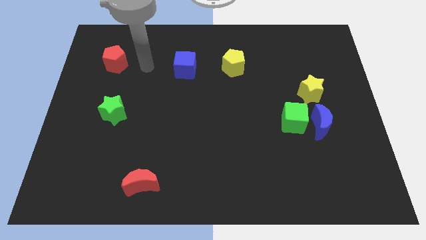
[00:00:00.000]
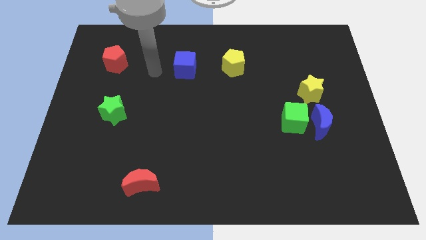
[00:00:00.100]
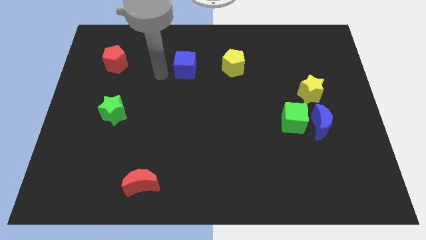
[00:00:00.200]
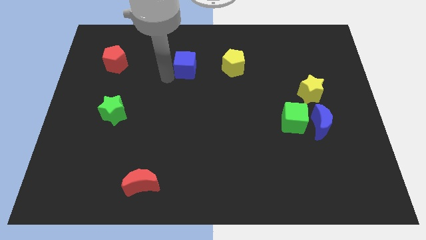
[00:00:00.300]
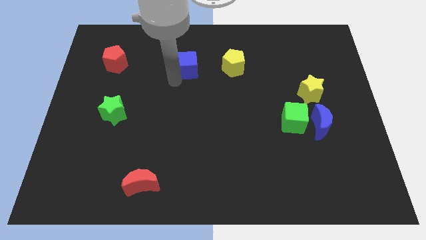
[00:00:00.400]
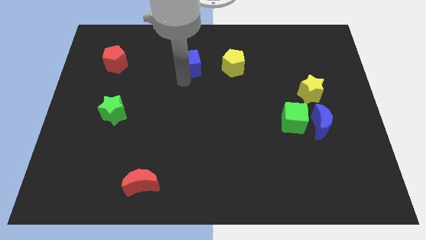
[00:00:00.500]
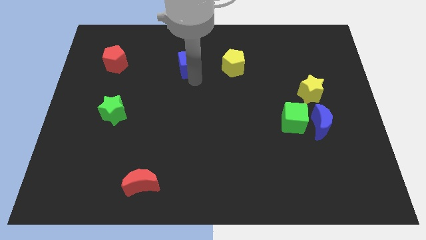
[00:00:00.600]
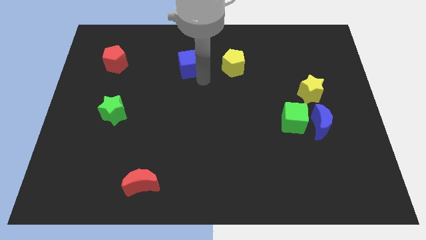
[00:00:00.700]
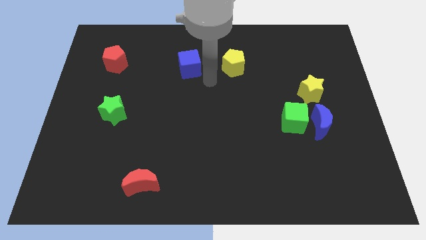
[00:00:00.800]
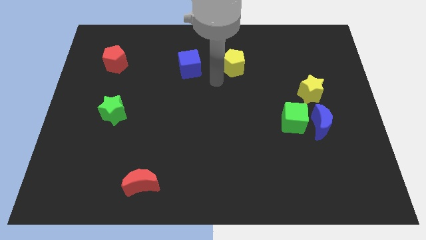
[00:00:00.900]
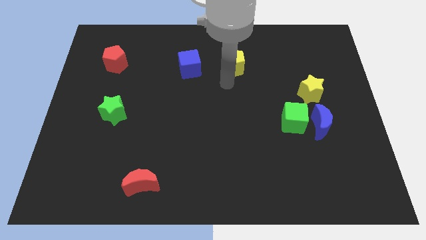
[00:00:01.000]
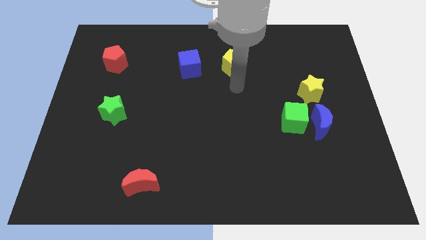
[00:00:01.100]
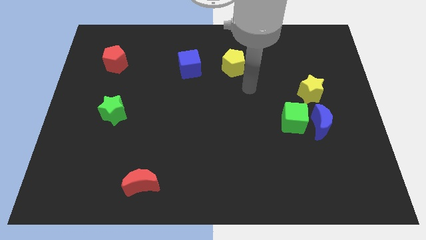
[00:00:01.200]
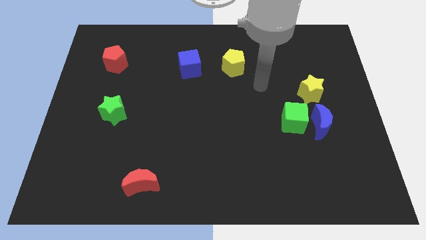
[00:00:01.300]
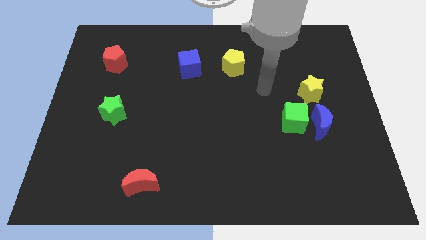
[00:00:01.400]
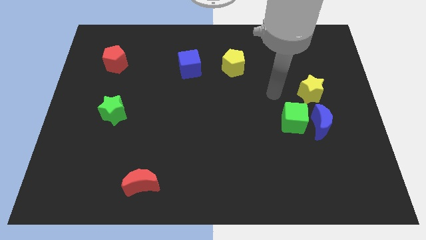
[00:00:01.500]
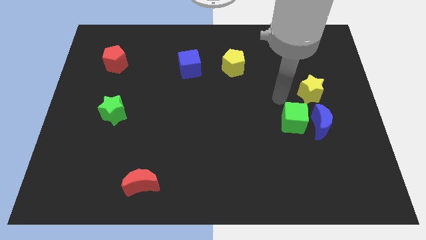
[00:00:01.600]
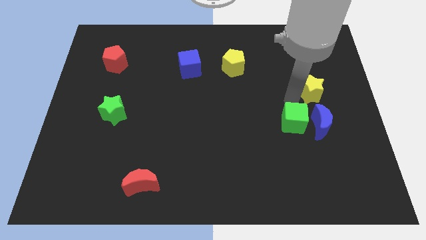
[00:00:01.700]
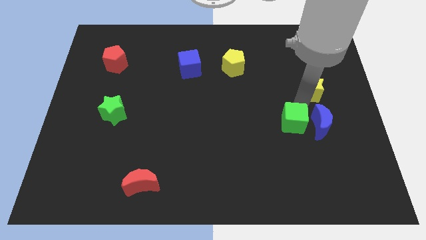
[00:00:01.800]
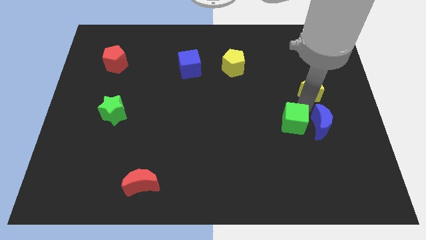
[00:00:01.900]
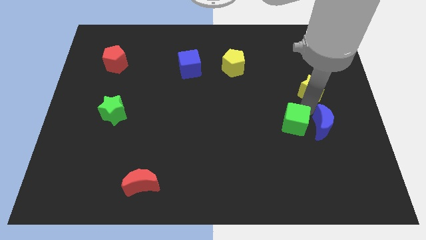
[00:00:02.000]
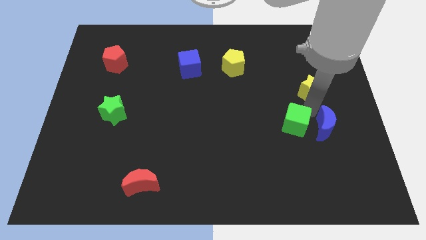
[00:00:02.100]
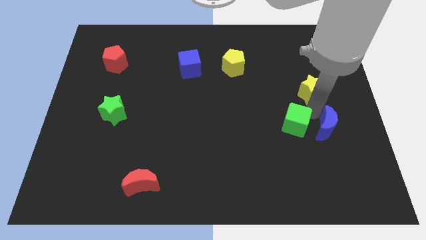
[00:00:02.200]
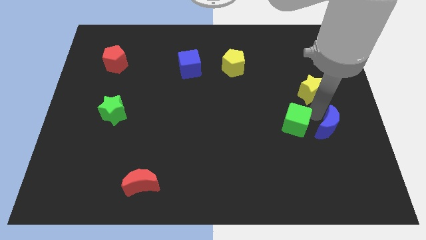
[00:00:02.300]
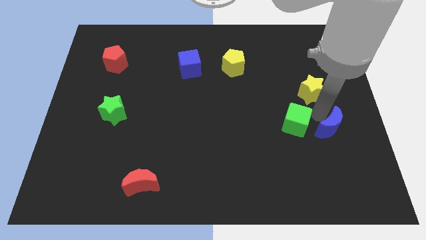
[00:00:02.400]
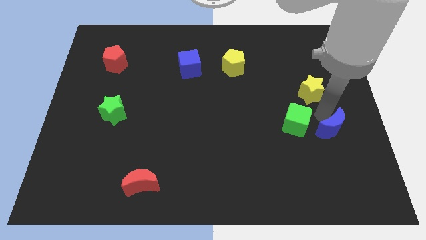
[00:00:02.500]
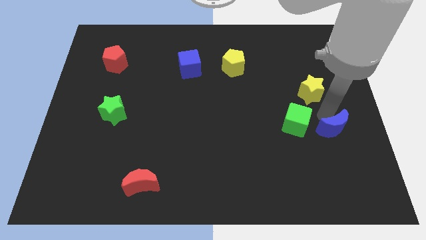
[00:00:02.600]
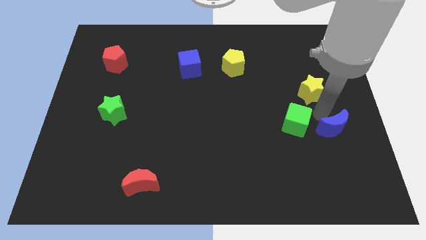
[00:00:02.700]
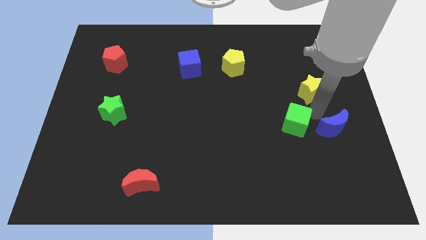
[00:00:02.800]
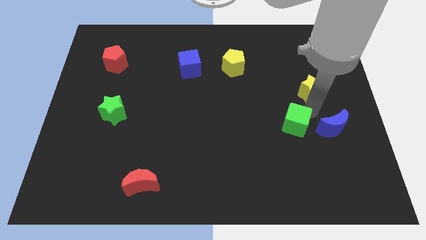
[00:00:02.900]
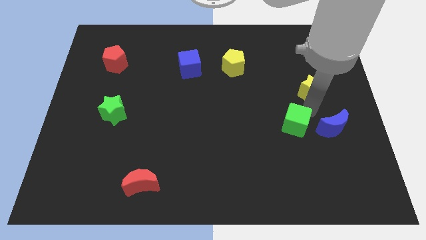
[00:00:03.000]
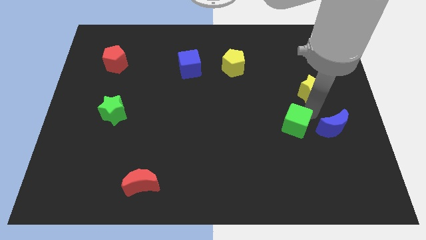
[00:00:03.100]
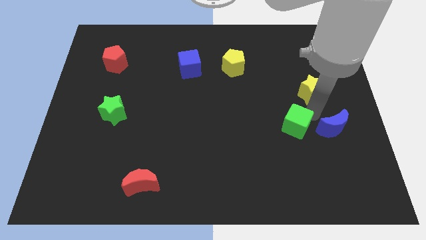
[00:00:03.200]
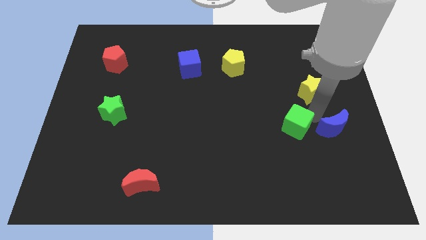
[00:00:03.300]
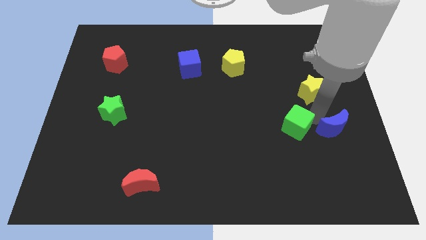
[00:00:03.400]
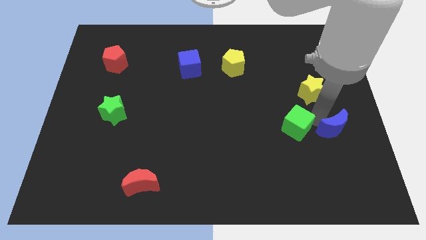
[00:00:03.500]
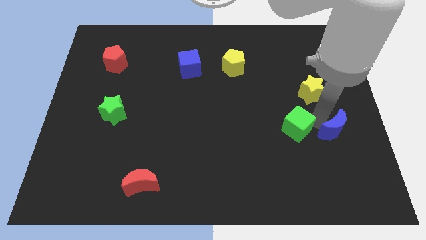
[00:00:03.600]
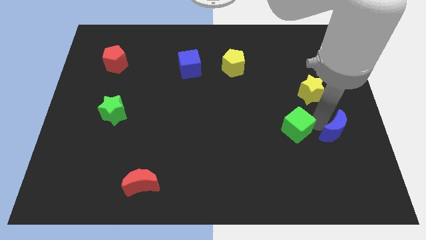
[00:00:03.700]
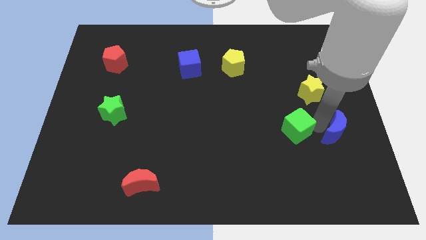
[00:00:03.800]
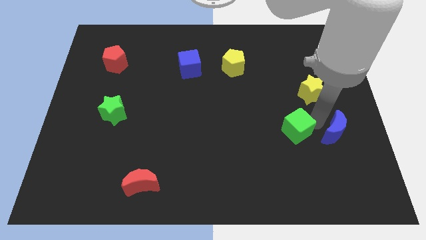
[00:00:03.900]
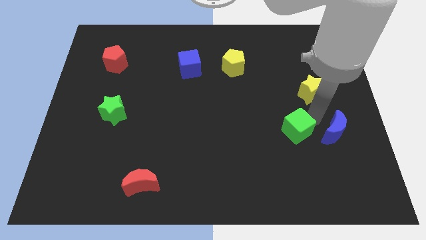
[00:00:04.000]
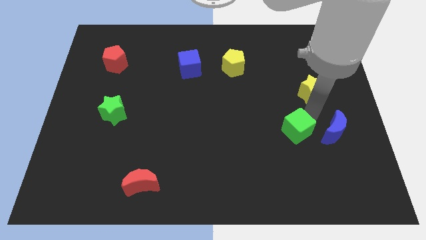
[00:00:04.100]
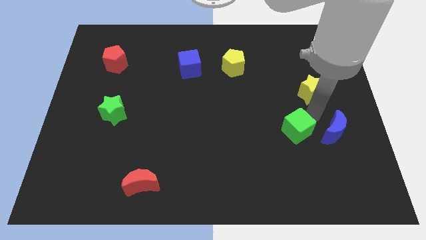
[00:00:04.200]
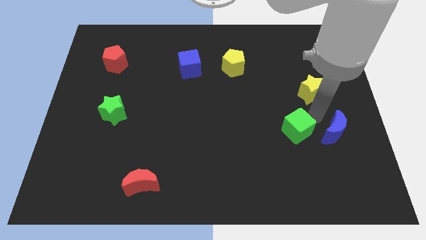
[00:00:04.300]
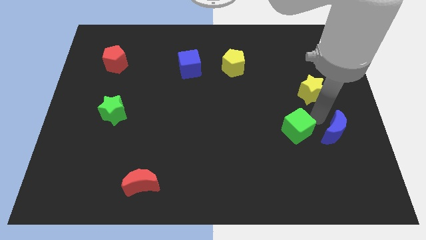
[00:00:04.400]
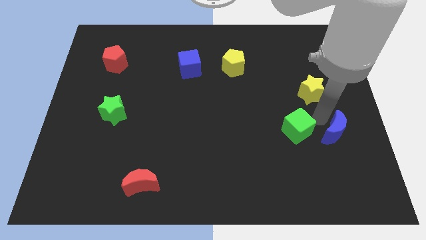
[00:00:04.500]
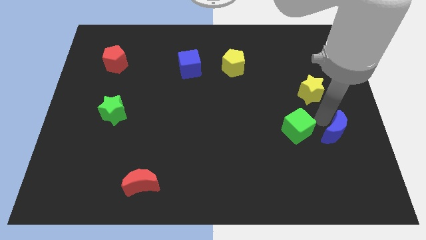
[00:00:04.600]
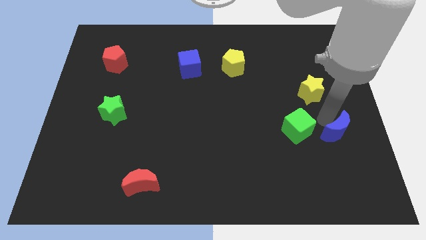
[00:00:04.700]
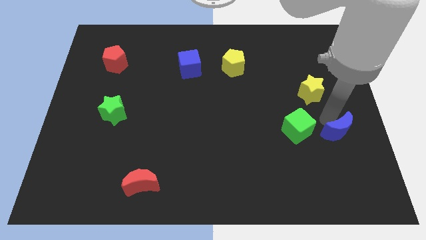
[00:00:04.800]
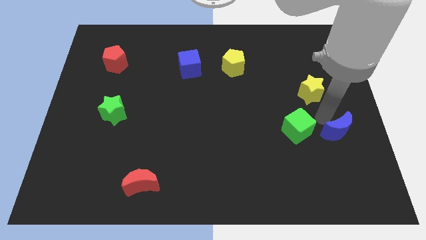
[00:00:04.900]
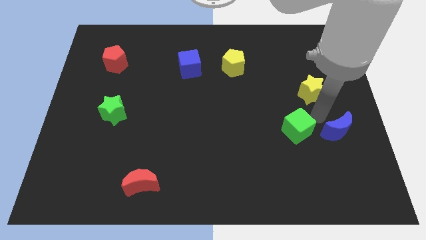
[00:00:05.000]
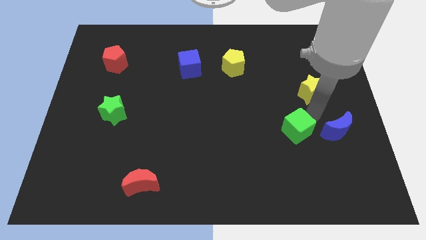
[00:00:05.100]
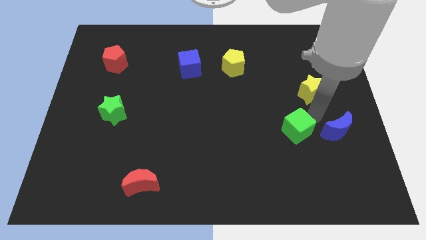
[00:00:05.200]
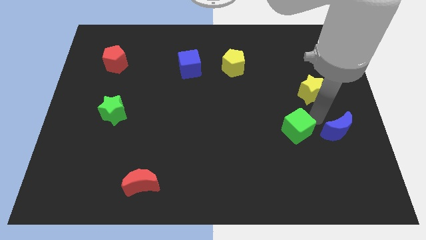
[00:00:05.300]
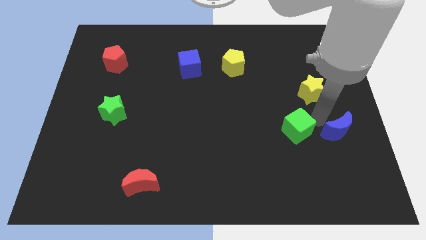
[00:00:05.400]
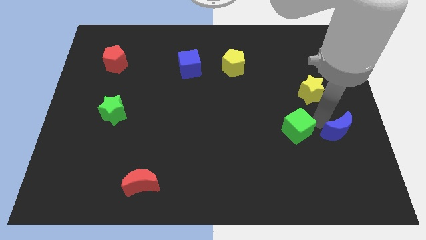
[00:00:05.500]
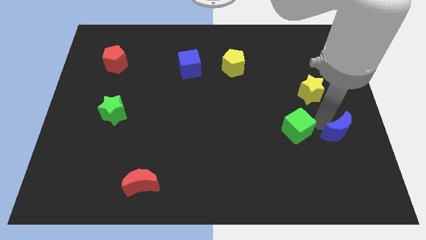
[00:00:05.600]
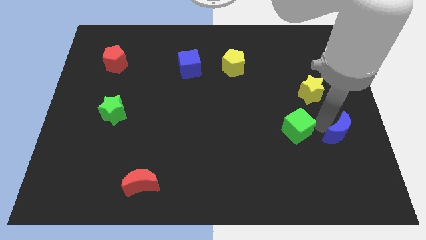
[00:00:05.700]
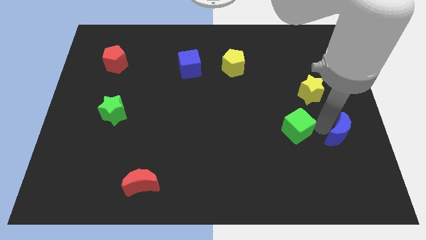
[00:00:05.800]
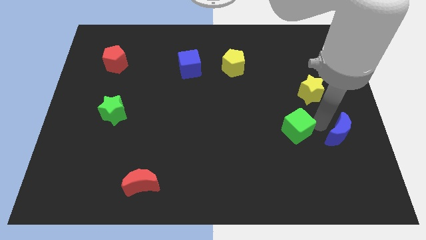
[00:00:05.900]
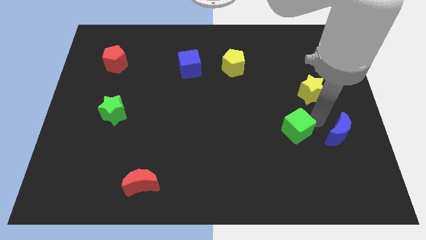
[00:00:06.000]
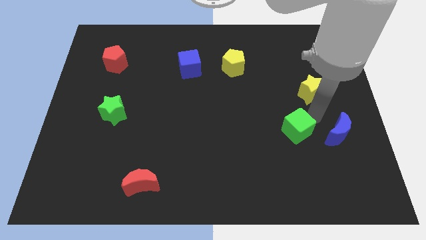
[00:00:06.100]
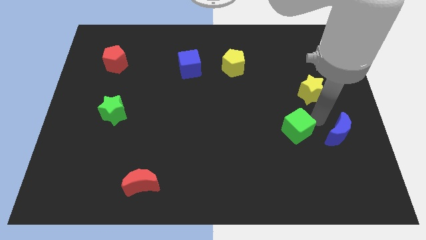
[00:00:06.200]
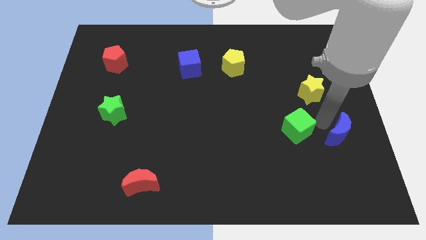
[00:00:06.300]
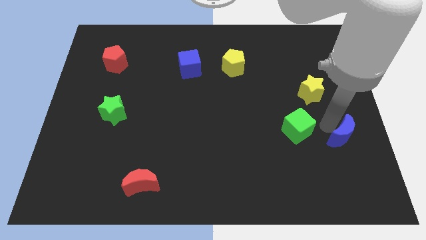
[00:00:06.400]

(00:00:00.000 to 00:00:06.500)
pull the blue moon apart from the green cube and yellow star

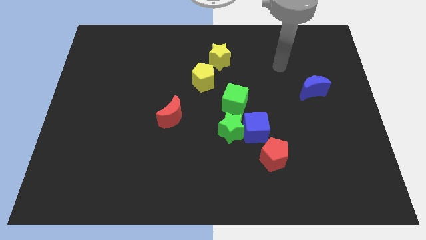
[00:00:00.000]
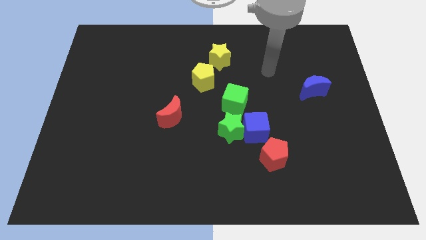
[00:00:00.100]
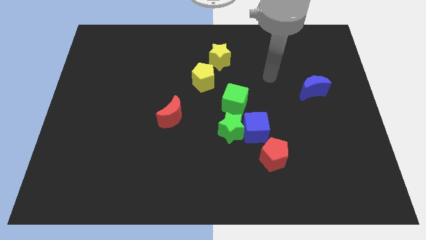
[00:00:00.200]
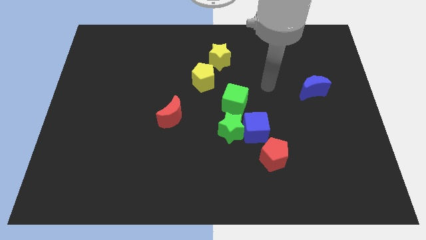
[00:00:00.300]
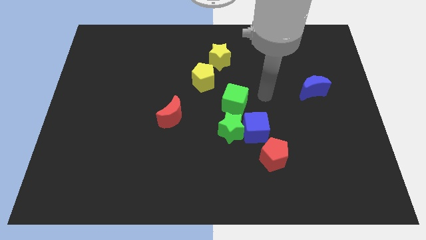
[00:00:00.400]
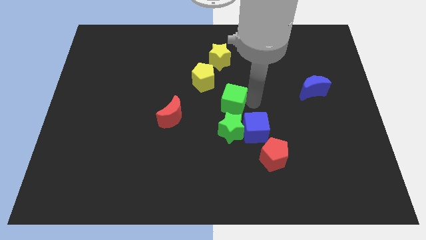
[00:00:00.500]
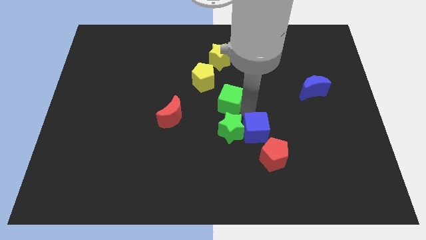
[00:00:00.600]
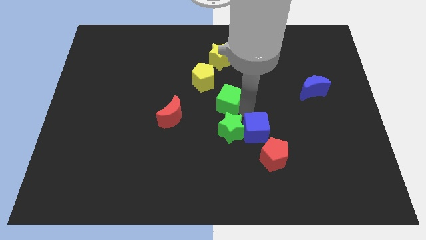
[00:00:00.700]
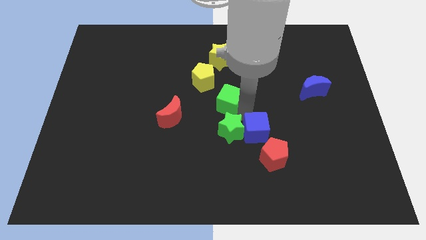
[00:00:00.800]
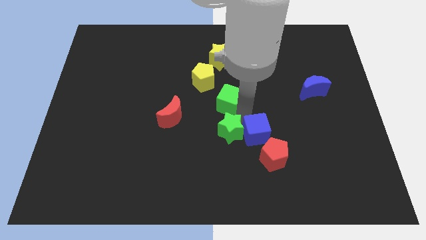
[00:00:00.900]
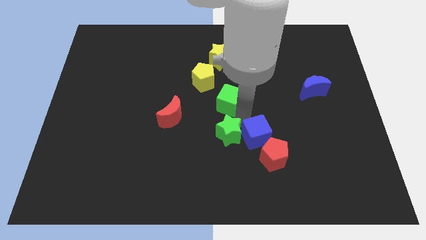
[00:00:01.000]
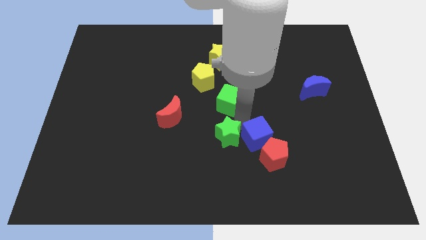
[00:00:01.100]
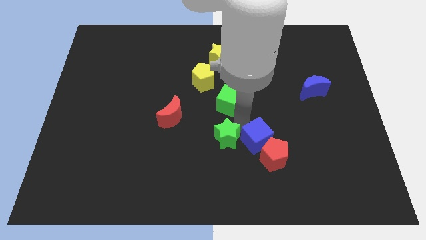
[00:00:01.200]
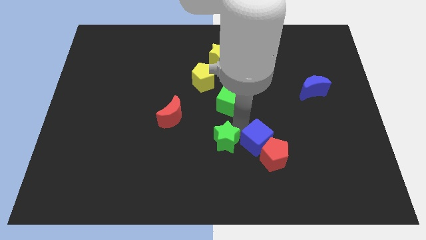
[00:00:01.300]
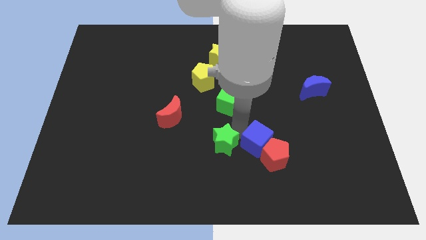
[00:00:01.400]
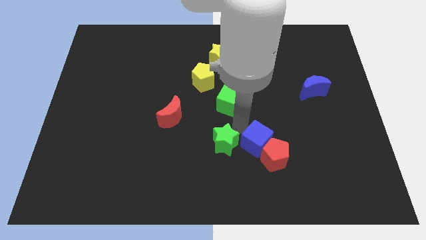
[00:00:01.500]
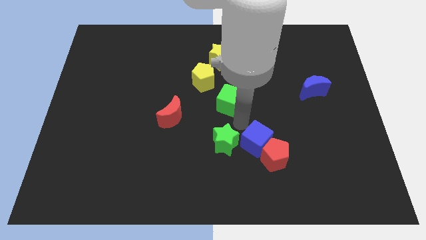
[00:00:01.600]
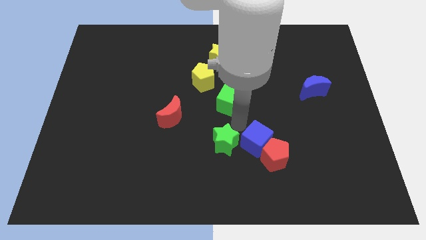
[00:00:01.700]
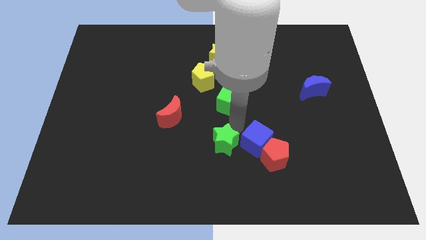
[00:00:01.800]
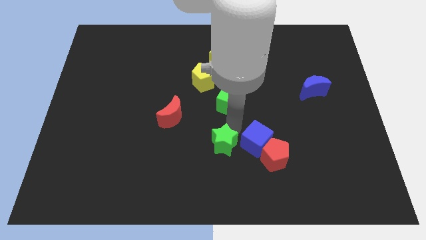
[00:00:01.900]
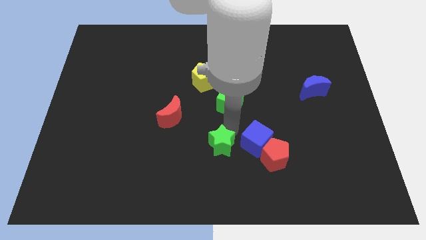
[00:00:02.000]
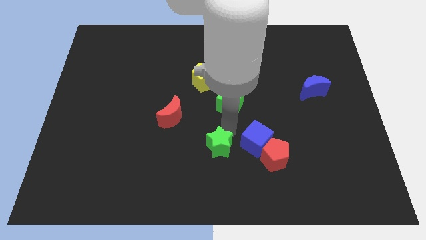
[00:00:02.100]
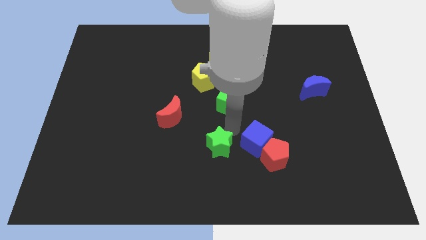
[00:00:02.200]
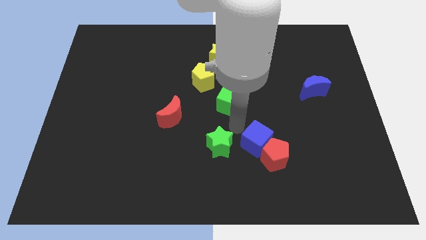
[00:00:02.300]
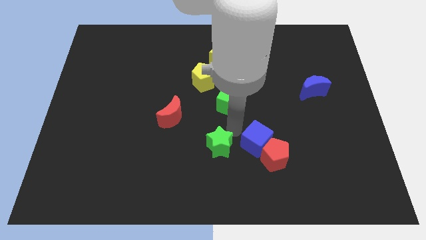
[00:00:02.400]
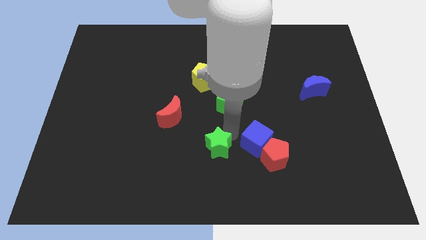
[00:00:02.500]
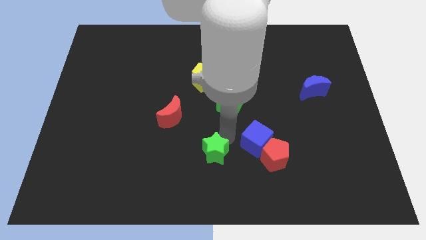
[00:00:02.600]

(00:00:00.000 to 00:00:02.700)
pull the green star apart from the blue cube and green cube

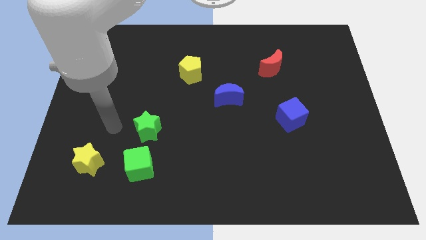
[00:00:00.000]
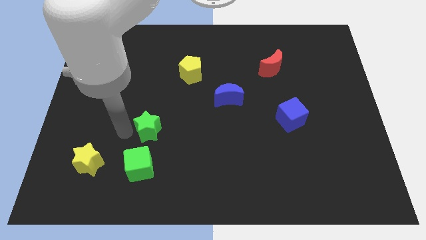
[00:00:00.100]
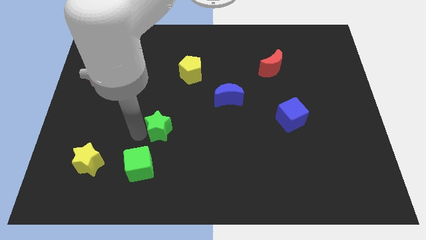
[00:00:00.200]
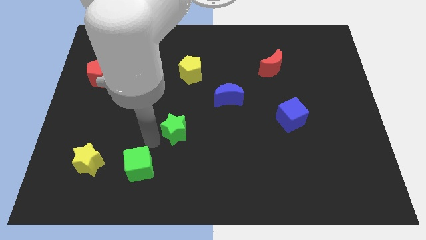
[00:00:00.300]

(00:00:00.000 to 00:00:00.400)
separate the green cube from the green star
